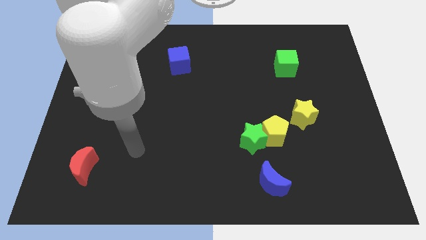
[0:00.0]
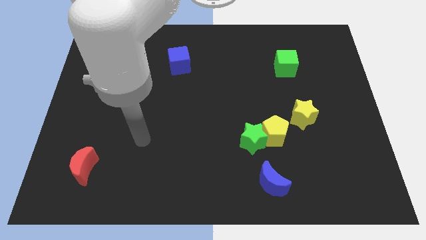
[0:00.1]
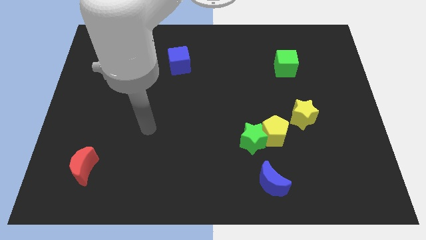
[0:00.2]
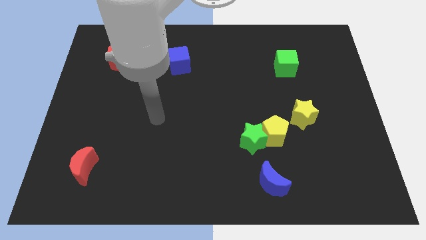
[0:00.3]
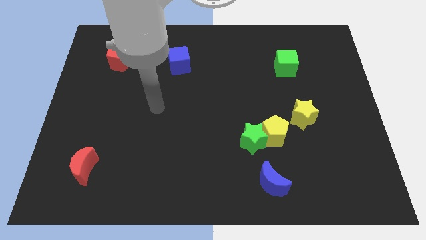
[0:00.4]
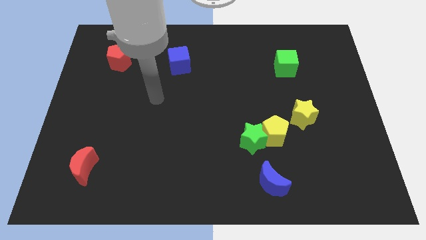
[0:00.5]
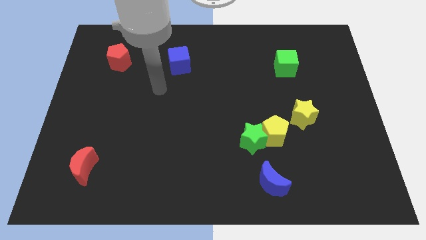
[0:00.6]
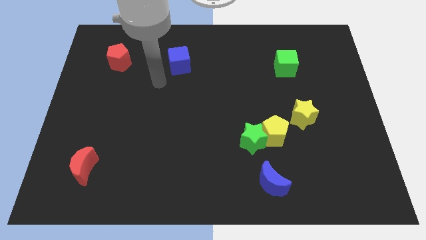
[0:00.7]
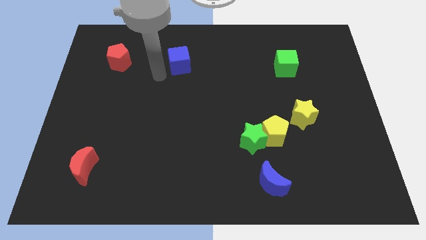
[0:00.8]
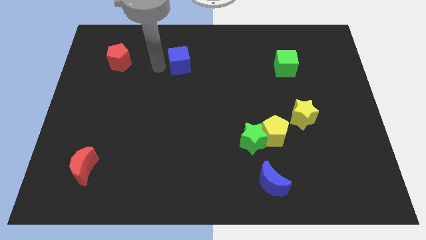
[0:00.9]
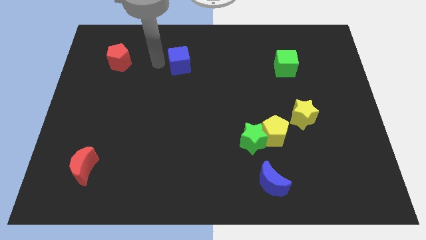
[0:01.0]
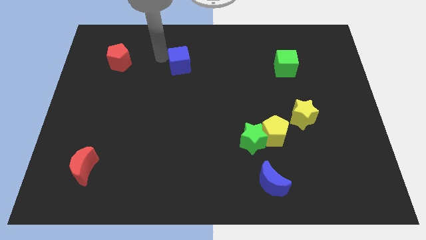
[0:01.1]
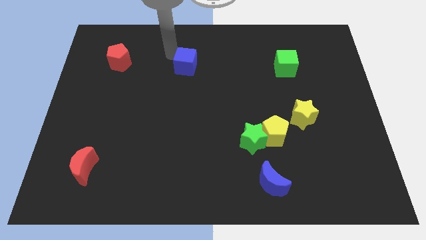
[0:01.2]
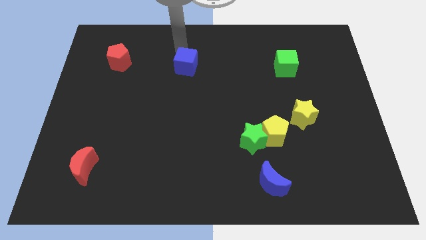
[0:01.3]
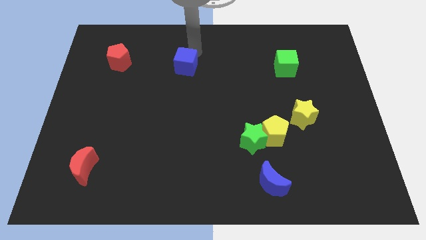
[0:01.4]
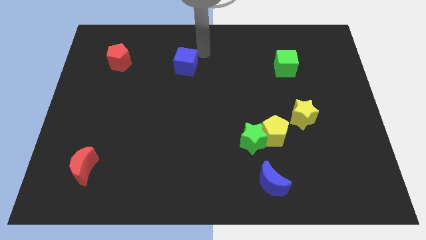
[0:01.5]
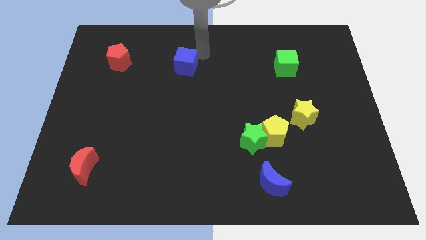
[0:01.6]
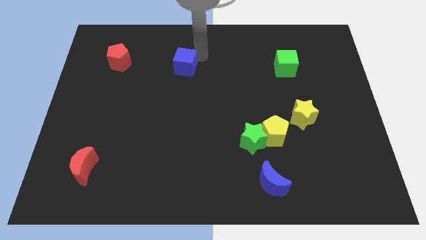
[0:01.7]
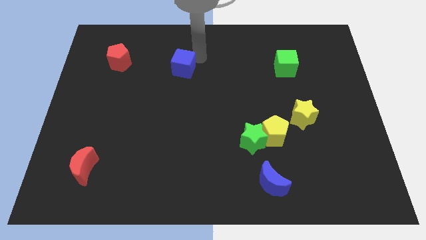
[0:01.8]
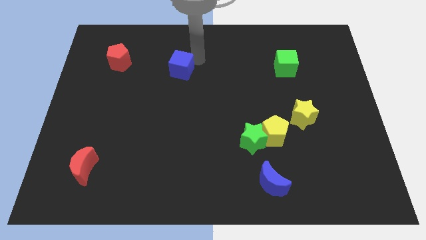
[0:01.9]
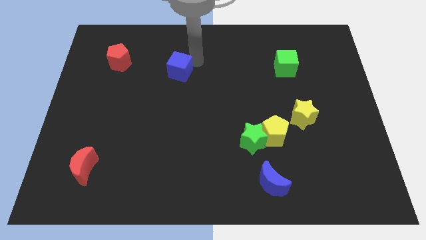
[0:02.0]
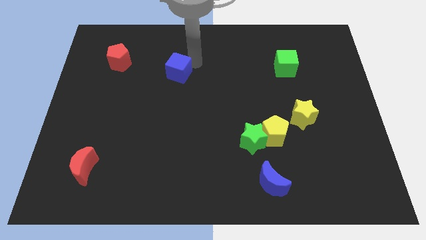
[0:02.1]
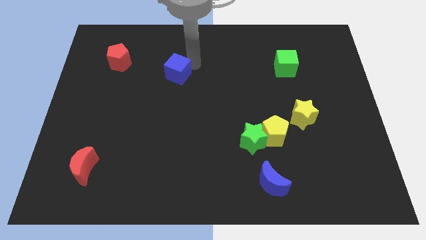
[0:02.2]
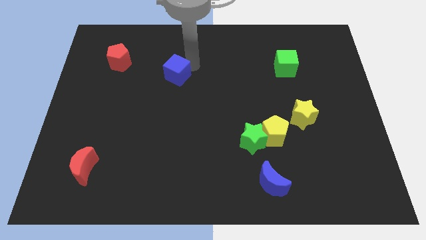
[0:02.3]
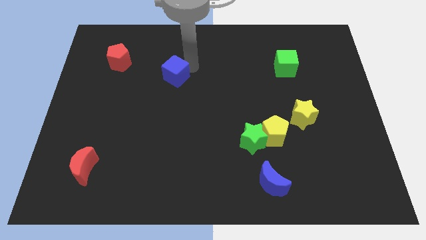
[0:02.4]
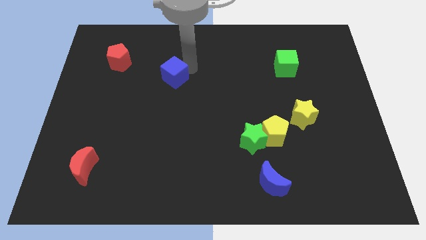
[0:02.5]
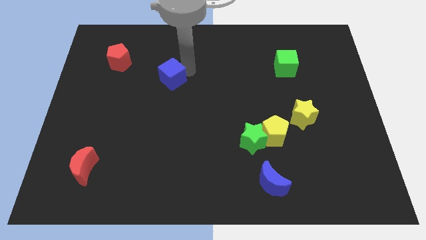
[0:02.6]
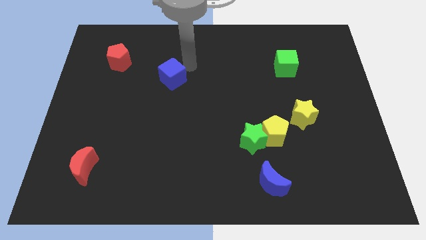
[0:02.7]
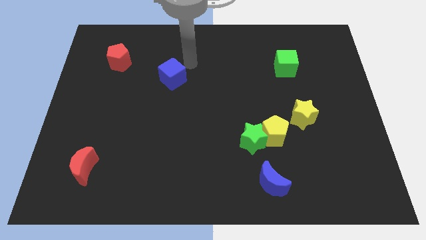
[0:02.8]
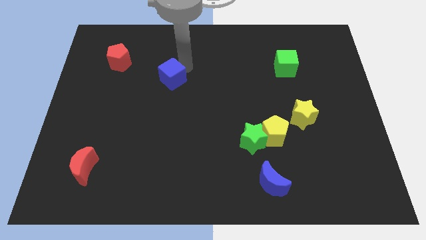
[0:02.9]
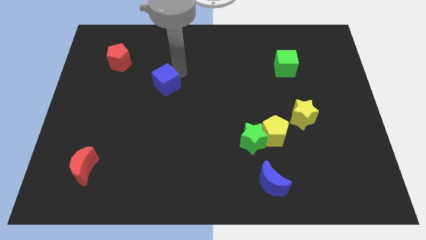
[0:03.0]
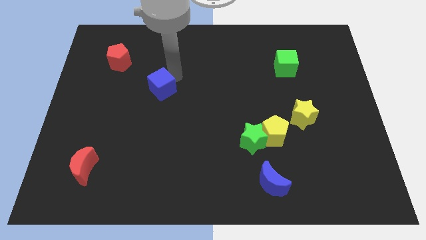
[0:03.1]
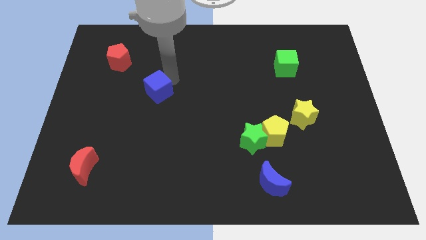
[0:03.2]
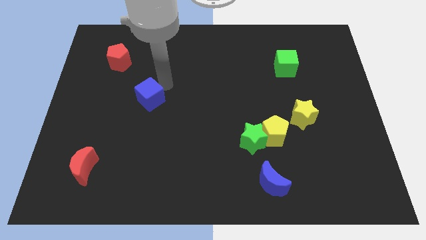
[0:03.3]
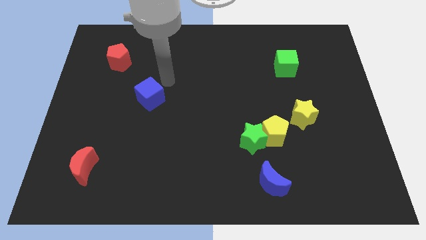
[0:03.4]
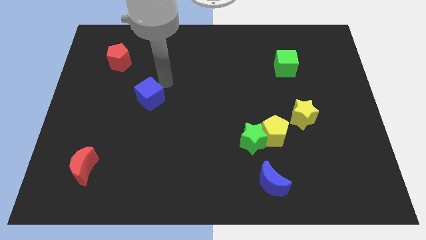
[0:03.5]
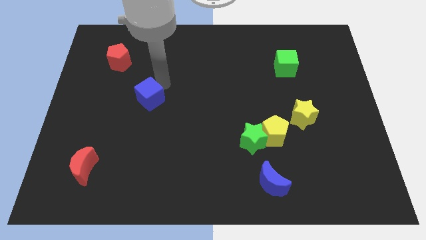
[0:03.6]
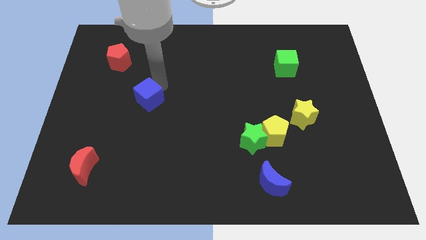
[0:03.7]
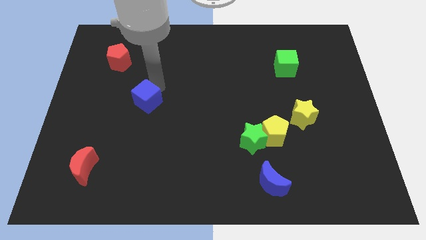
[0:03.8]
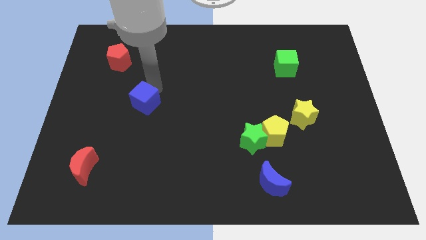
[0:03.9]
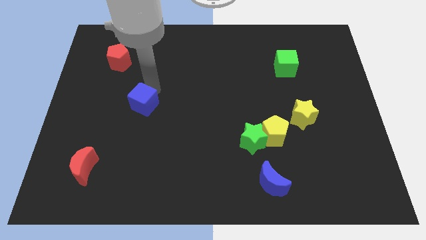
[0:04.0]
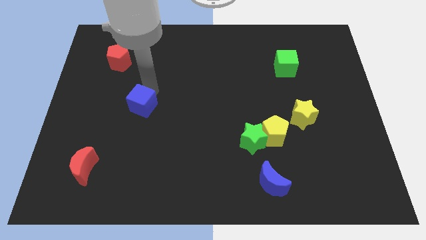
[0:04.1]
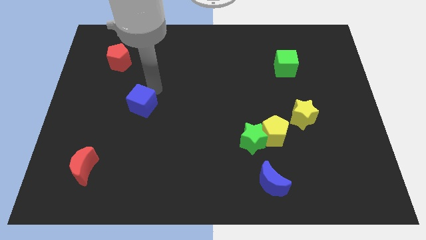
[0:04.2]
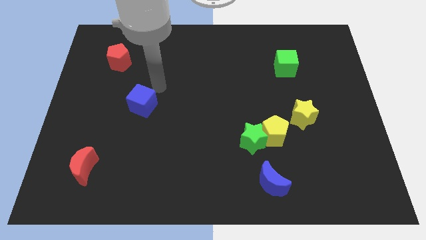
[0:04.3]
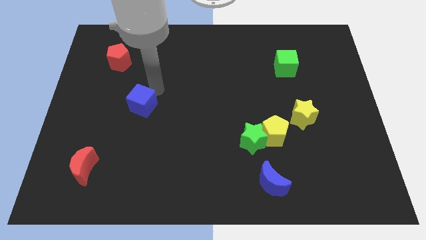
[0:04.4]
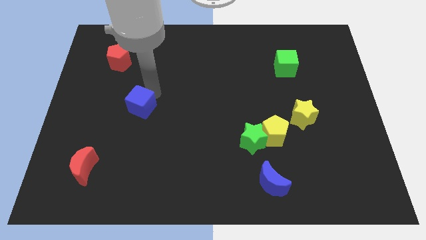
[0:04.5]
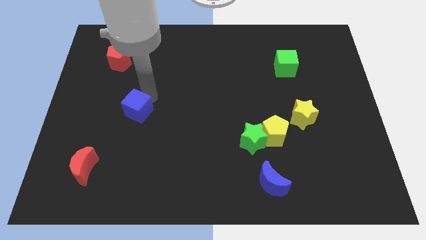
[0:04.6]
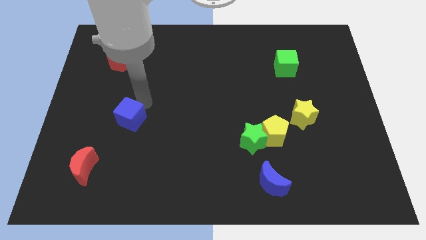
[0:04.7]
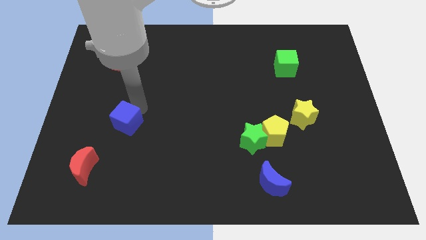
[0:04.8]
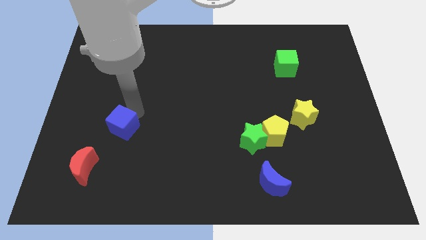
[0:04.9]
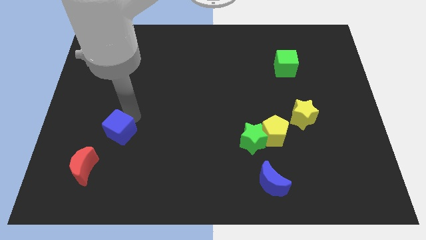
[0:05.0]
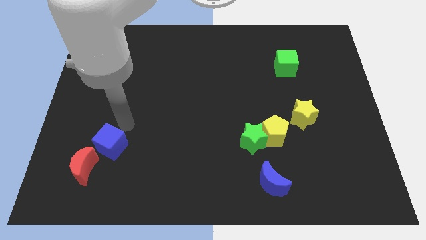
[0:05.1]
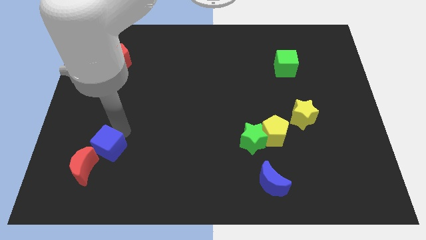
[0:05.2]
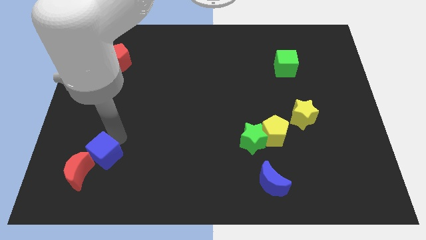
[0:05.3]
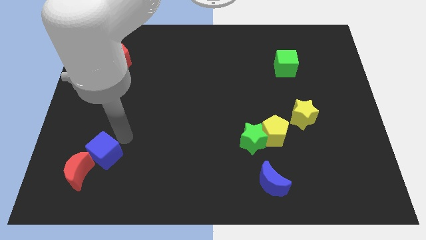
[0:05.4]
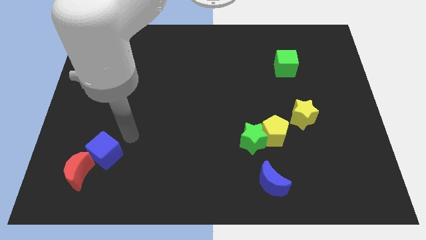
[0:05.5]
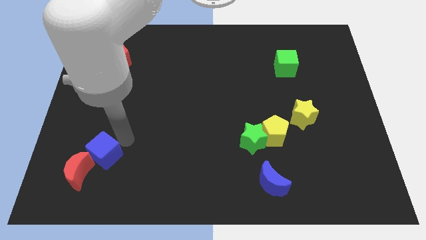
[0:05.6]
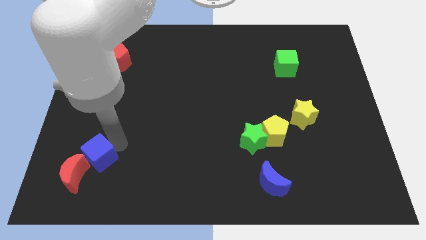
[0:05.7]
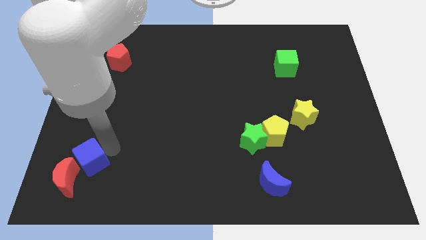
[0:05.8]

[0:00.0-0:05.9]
push the blue cube close to the red moon
